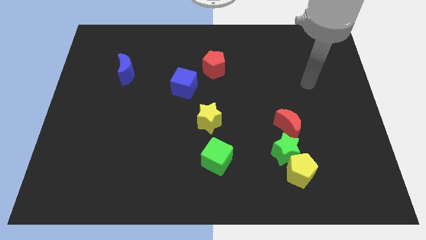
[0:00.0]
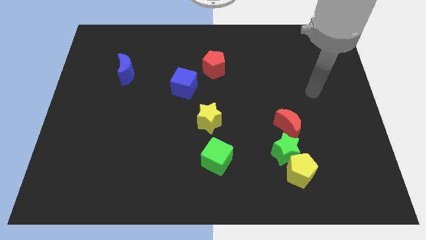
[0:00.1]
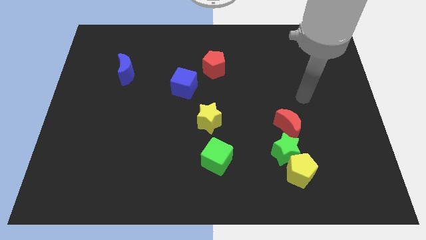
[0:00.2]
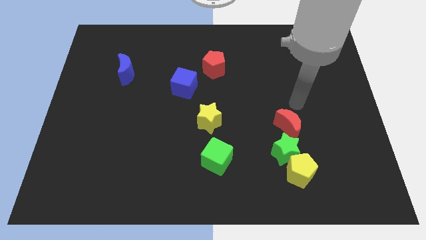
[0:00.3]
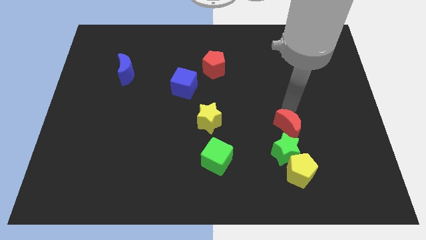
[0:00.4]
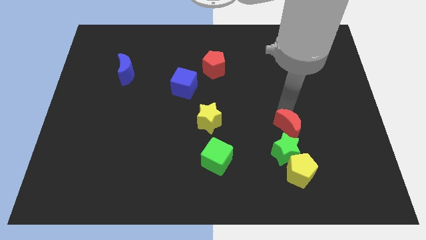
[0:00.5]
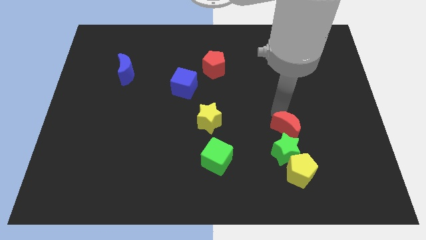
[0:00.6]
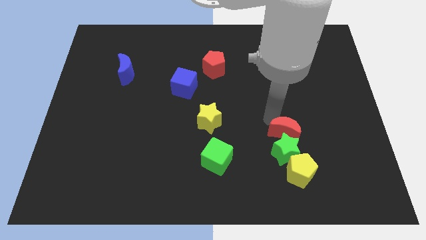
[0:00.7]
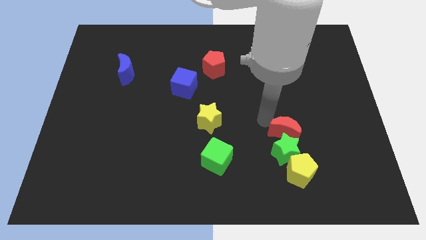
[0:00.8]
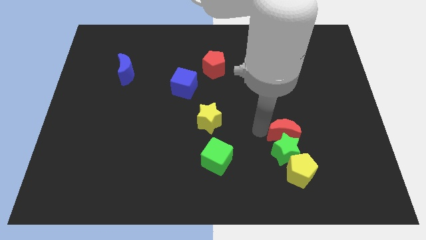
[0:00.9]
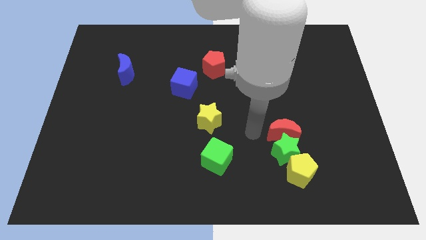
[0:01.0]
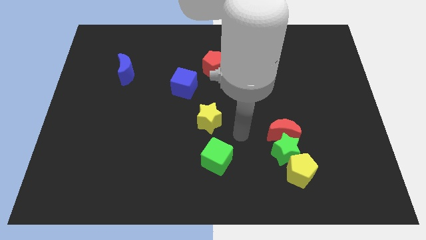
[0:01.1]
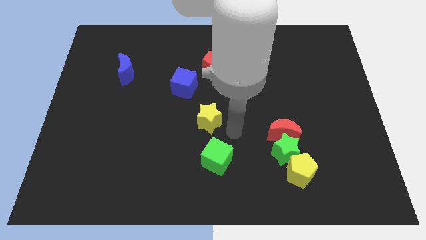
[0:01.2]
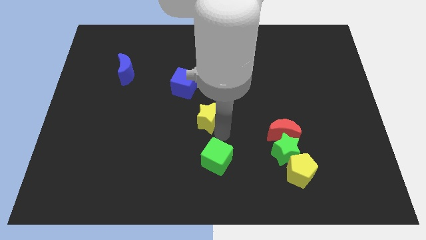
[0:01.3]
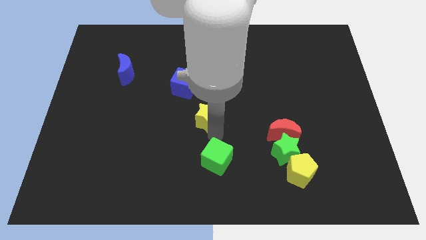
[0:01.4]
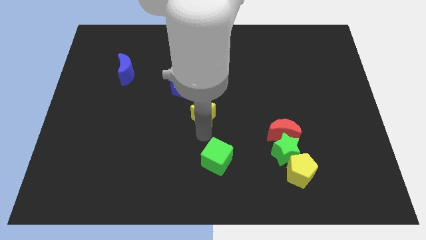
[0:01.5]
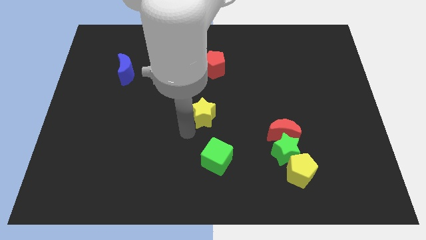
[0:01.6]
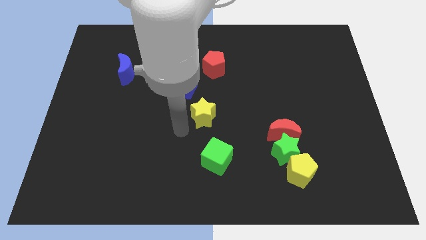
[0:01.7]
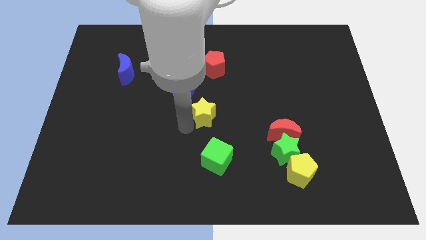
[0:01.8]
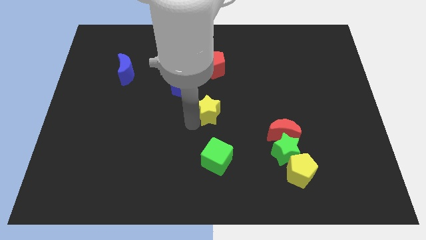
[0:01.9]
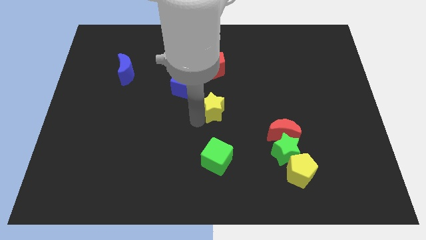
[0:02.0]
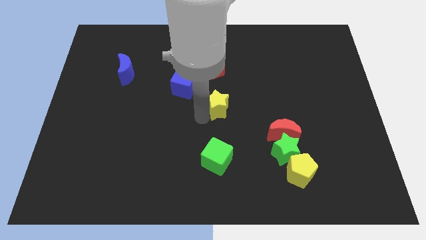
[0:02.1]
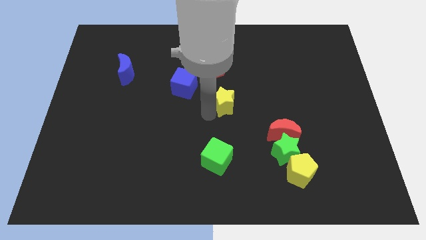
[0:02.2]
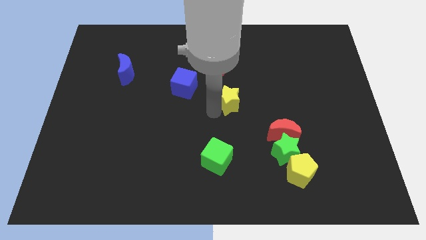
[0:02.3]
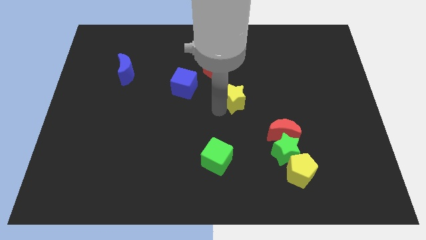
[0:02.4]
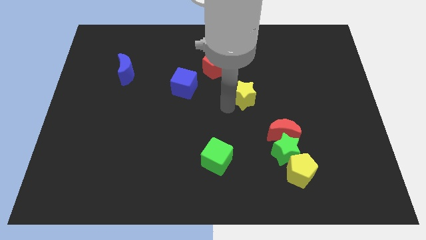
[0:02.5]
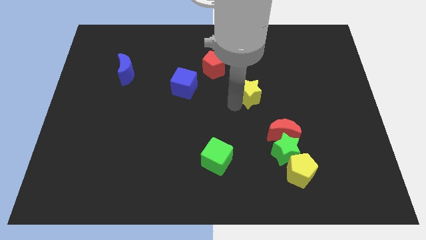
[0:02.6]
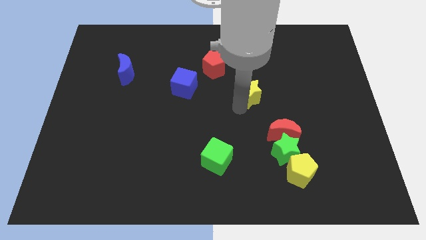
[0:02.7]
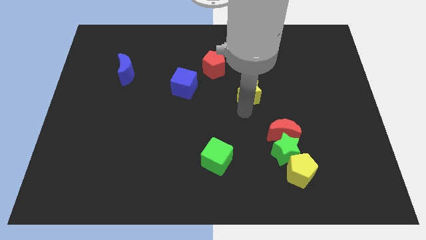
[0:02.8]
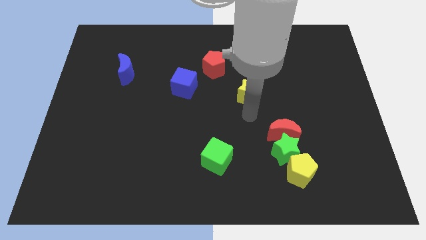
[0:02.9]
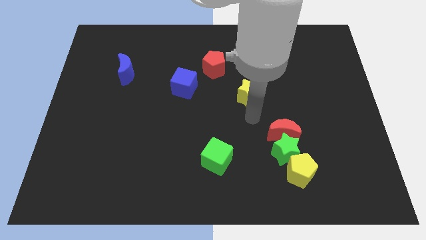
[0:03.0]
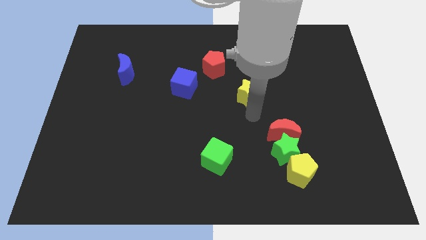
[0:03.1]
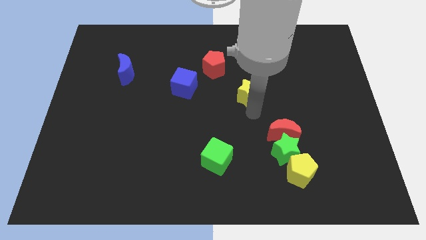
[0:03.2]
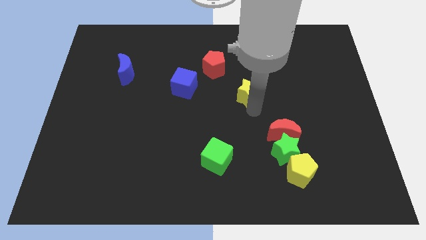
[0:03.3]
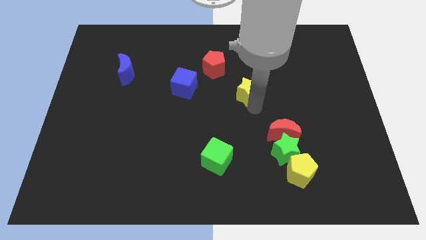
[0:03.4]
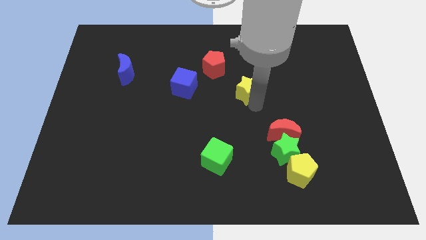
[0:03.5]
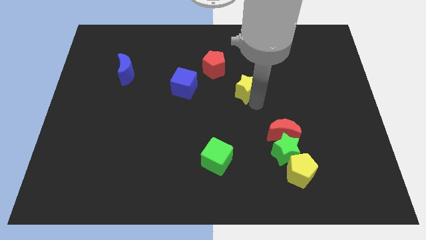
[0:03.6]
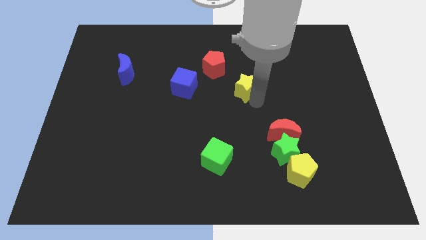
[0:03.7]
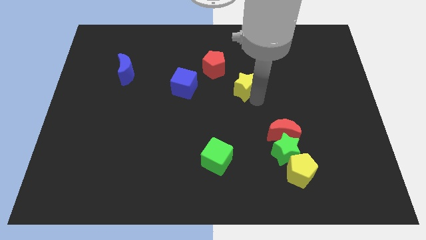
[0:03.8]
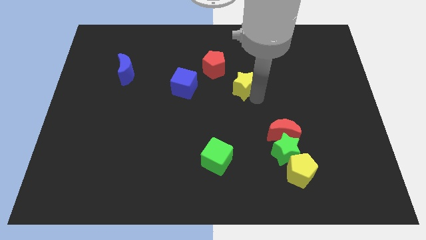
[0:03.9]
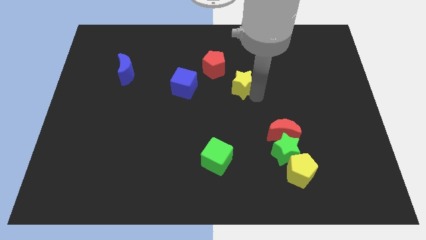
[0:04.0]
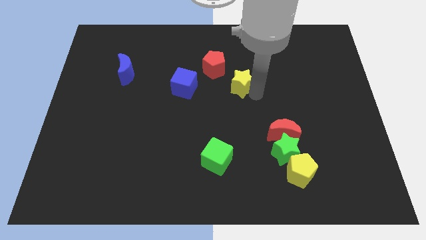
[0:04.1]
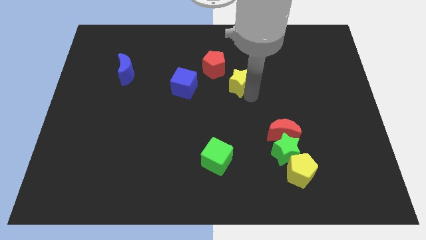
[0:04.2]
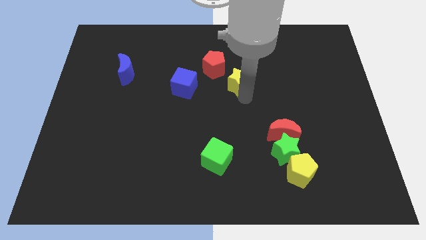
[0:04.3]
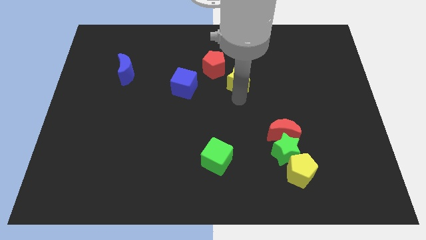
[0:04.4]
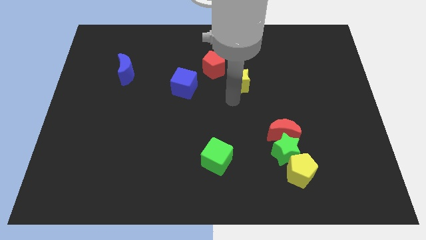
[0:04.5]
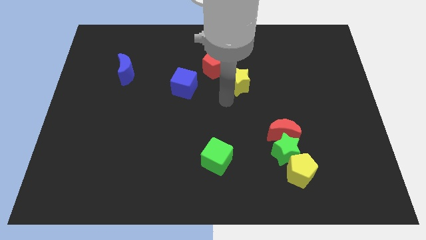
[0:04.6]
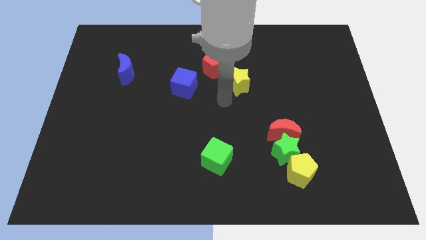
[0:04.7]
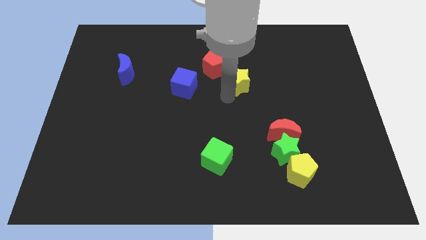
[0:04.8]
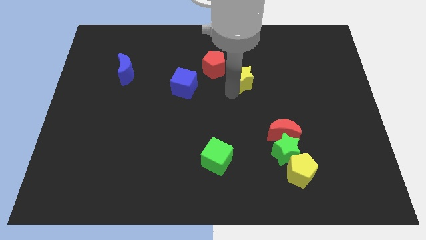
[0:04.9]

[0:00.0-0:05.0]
put the yellow star right of the red pentagon

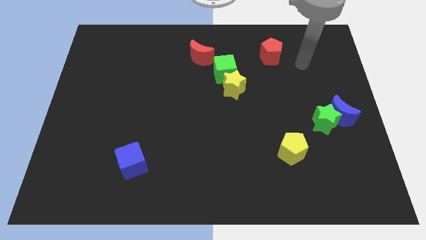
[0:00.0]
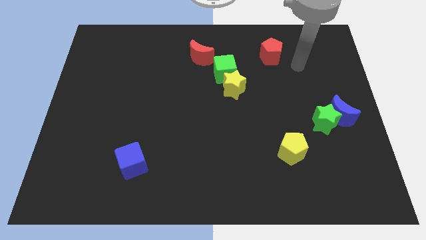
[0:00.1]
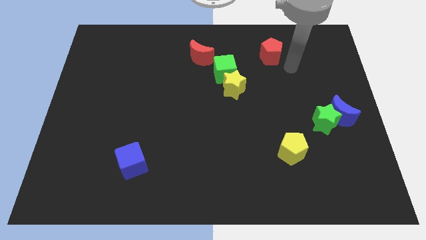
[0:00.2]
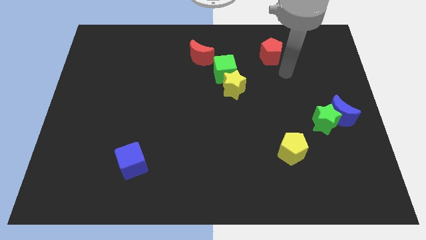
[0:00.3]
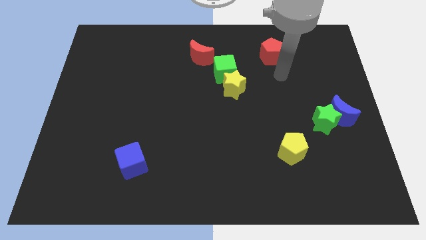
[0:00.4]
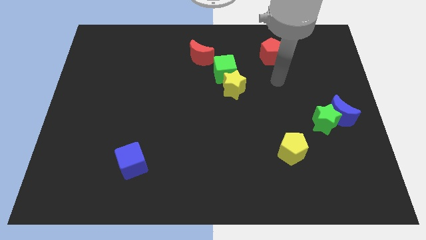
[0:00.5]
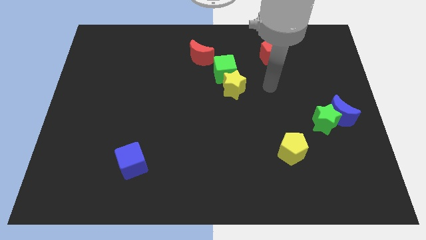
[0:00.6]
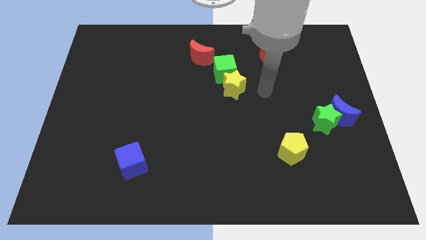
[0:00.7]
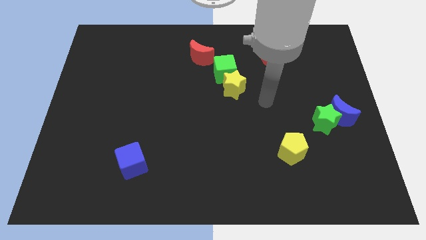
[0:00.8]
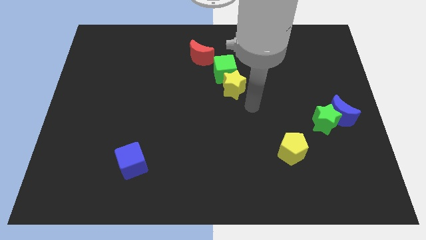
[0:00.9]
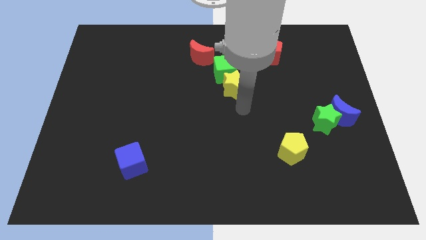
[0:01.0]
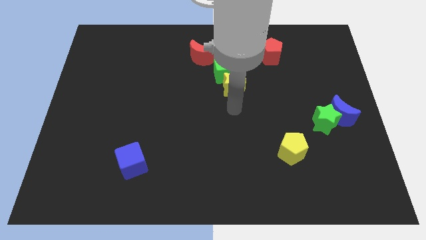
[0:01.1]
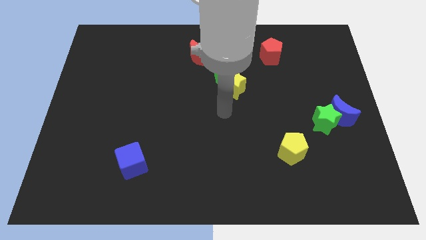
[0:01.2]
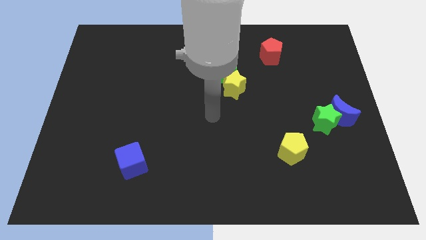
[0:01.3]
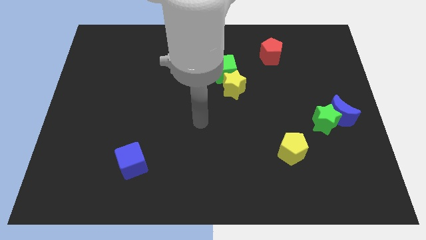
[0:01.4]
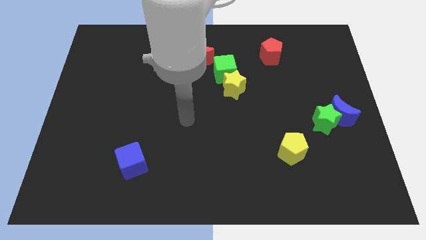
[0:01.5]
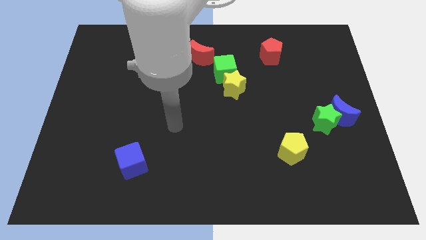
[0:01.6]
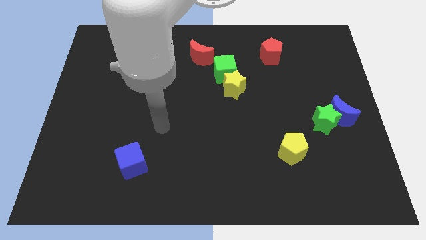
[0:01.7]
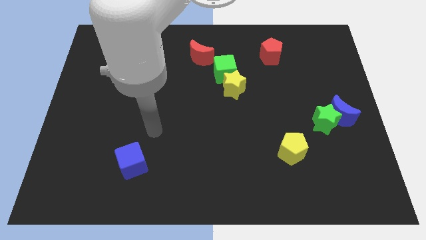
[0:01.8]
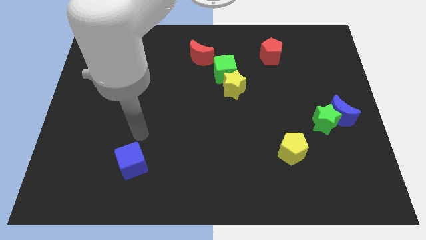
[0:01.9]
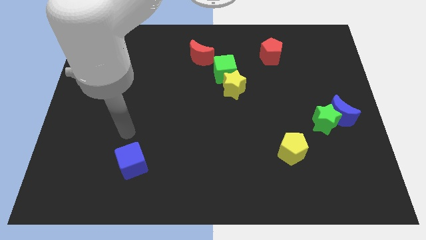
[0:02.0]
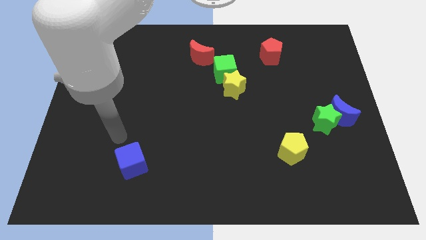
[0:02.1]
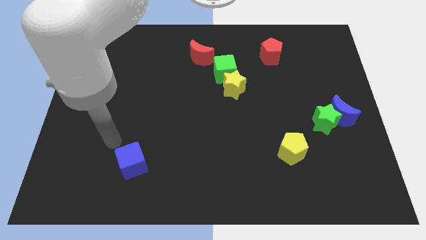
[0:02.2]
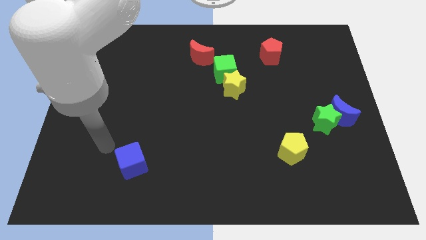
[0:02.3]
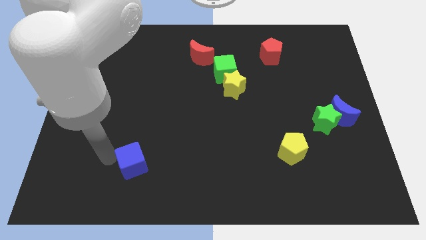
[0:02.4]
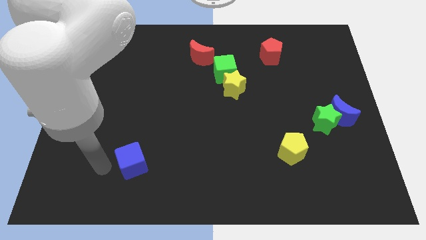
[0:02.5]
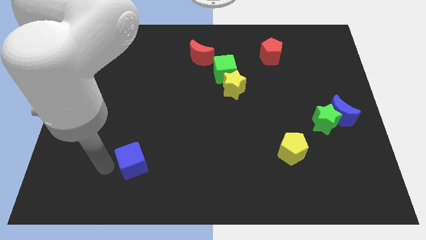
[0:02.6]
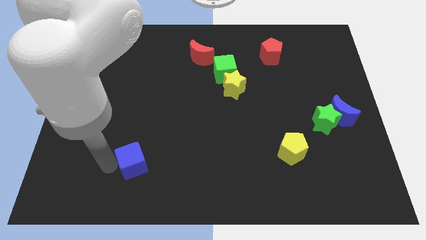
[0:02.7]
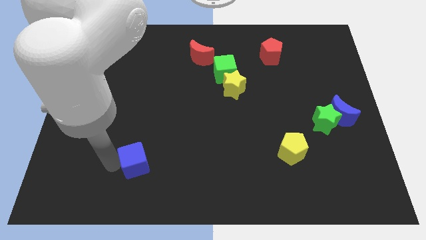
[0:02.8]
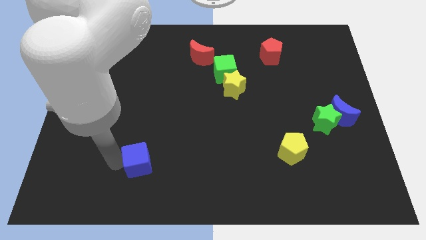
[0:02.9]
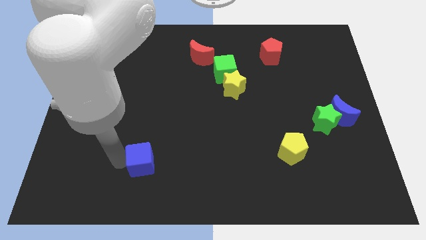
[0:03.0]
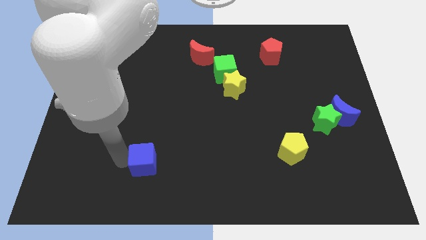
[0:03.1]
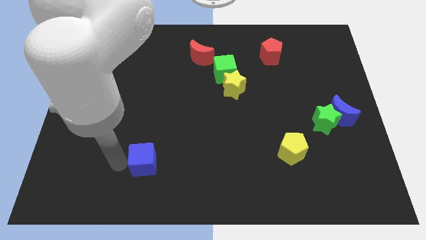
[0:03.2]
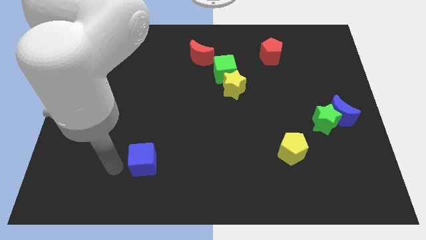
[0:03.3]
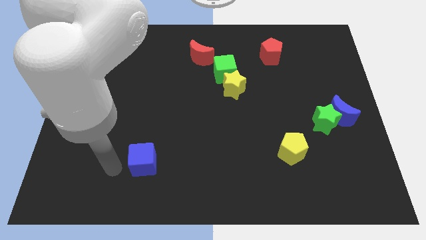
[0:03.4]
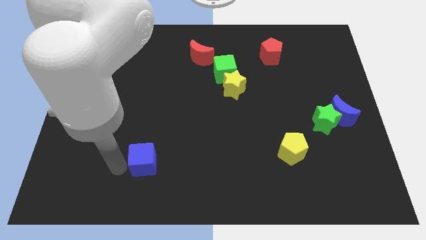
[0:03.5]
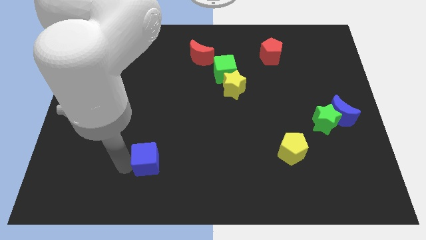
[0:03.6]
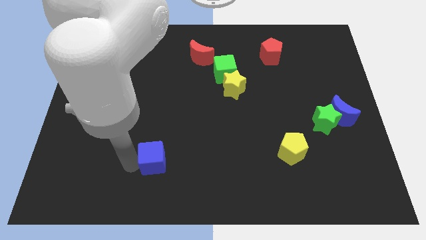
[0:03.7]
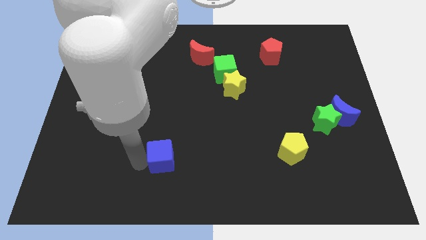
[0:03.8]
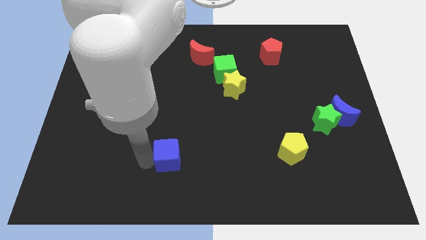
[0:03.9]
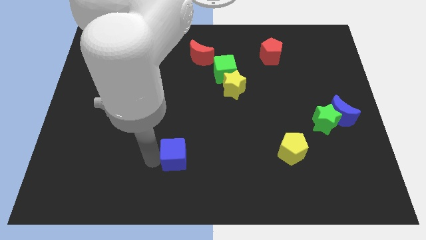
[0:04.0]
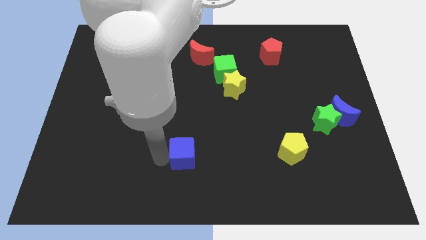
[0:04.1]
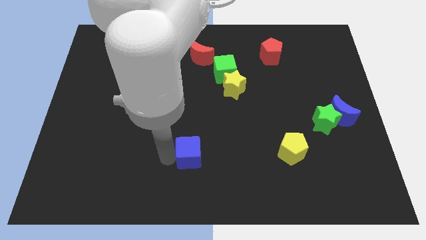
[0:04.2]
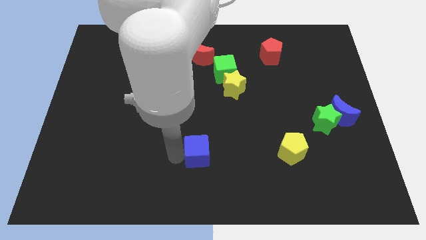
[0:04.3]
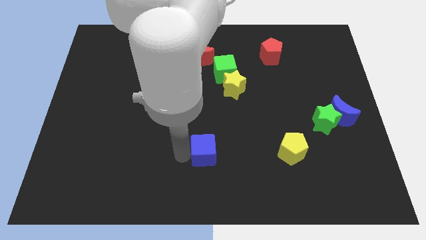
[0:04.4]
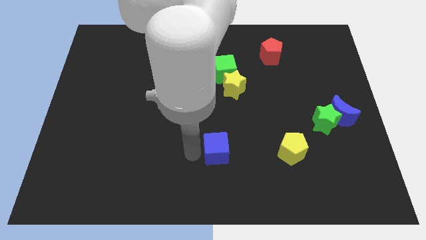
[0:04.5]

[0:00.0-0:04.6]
move the blue cube left of the yellow pentagon
